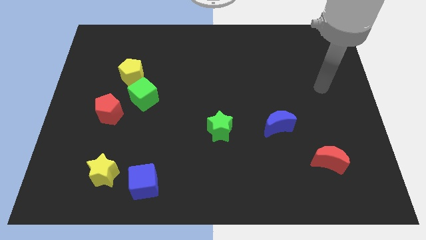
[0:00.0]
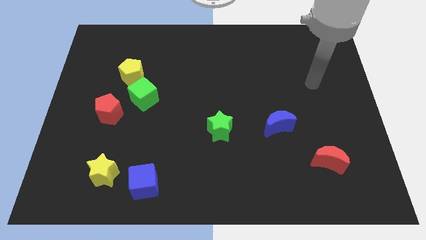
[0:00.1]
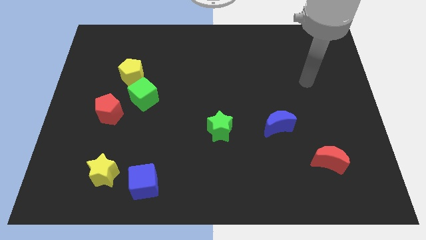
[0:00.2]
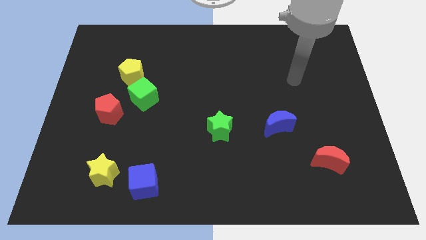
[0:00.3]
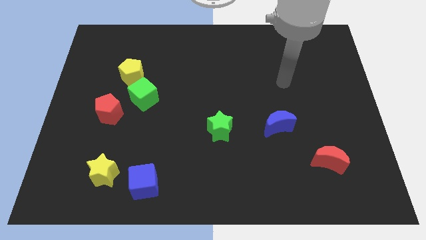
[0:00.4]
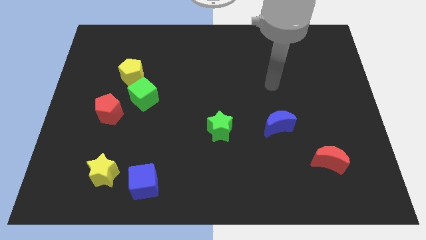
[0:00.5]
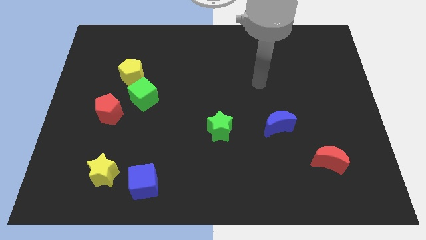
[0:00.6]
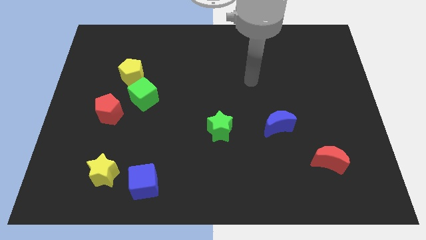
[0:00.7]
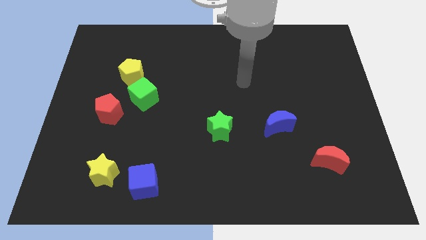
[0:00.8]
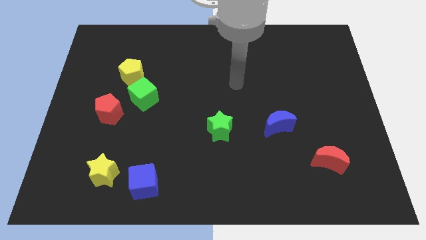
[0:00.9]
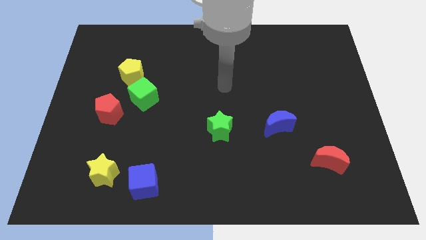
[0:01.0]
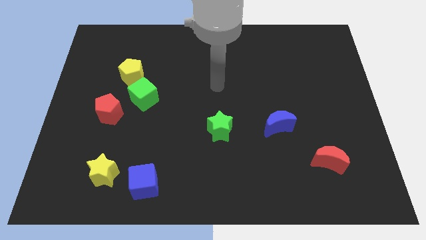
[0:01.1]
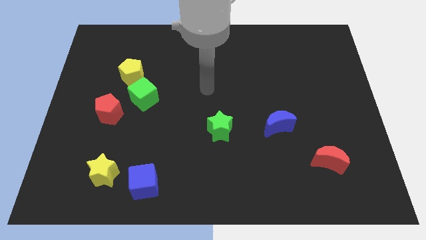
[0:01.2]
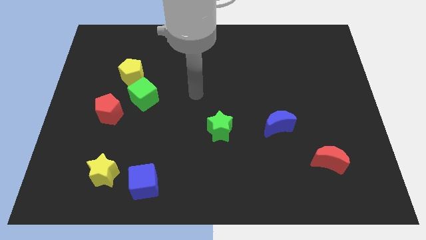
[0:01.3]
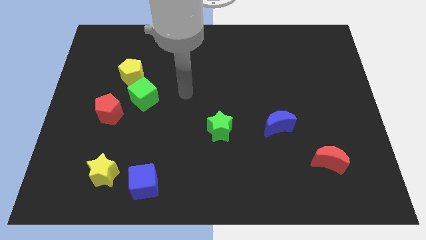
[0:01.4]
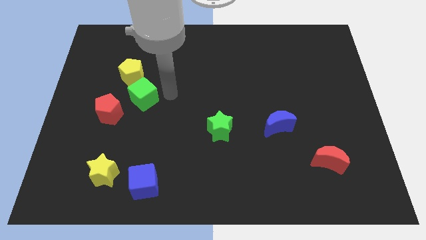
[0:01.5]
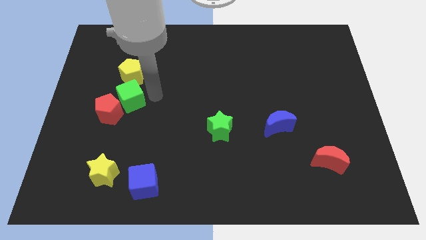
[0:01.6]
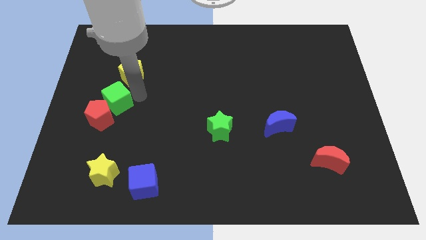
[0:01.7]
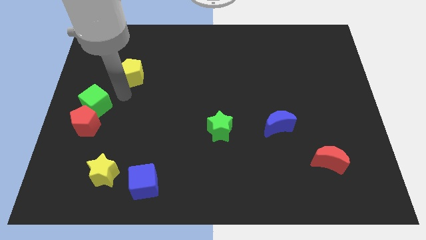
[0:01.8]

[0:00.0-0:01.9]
pull the yellow pentagon apart from the green cube

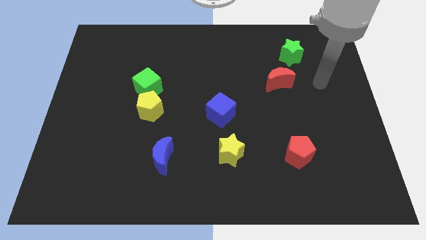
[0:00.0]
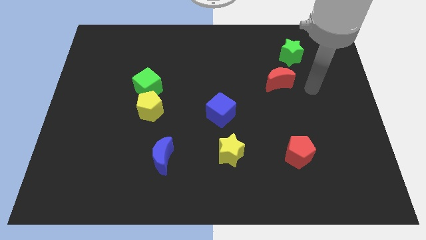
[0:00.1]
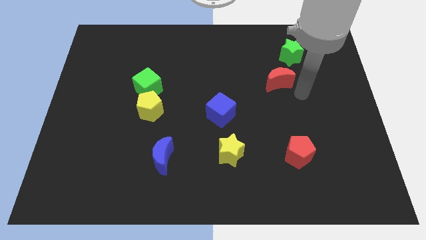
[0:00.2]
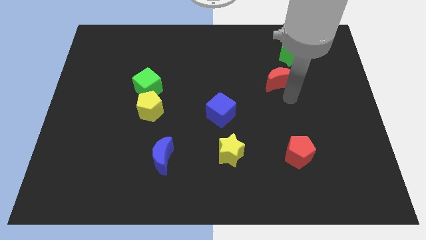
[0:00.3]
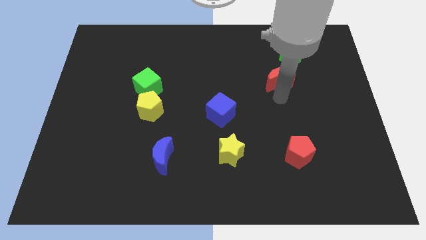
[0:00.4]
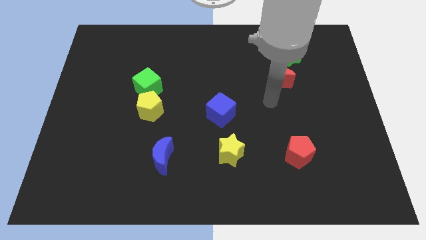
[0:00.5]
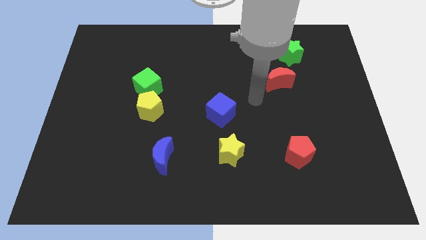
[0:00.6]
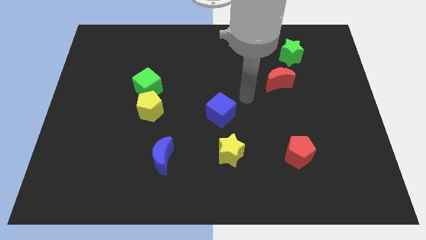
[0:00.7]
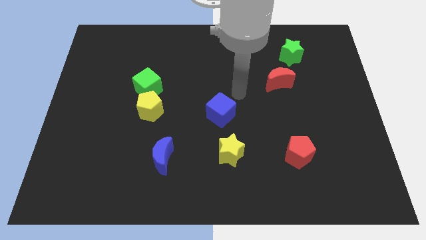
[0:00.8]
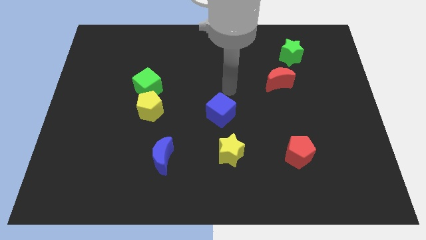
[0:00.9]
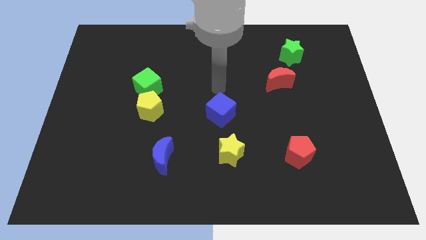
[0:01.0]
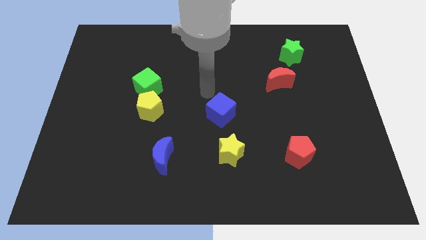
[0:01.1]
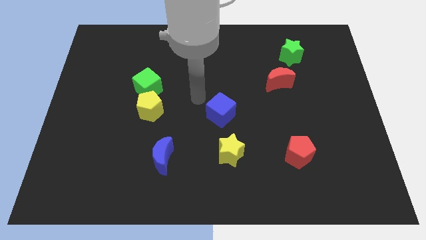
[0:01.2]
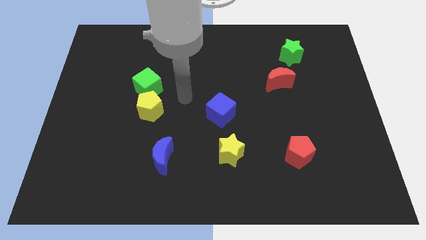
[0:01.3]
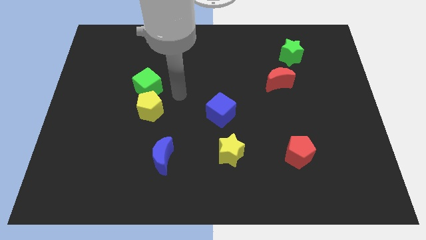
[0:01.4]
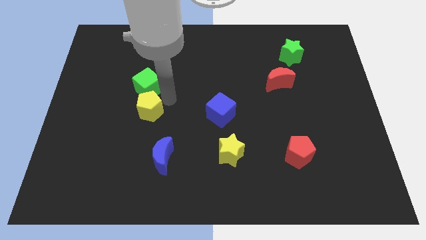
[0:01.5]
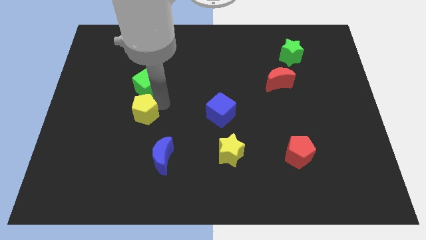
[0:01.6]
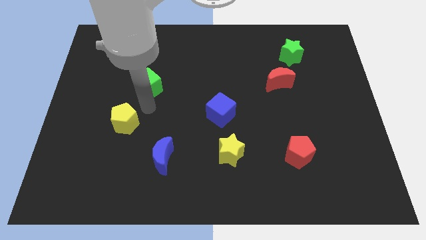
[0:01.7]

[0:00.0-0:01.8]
separate the green cube from the yellow pentagon

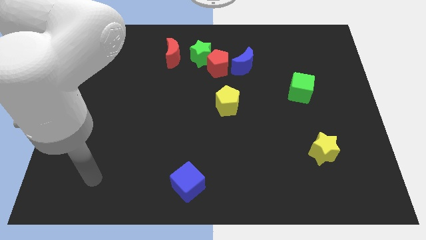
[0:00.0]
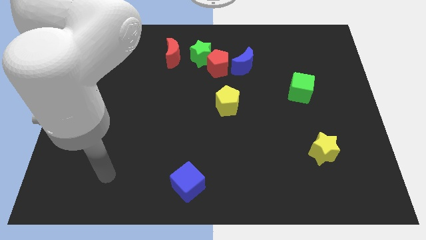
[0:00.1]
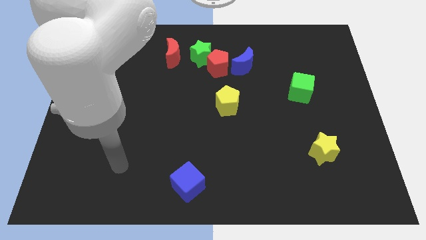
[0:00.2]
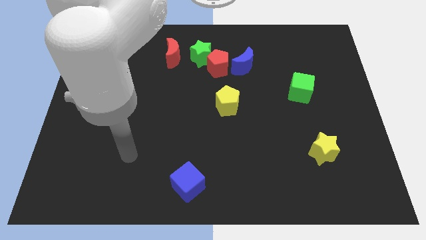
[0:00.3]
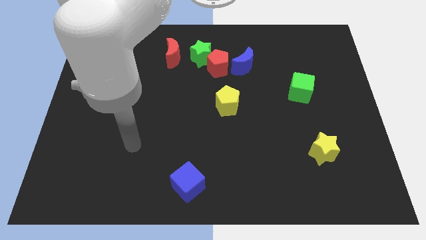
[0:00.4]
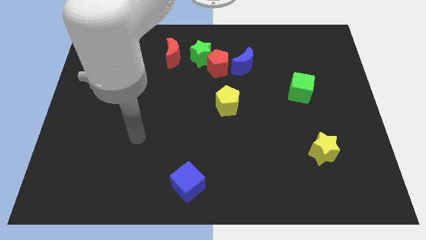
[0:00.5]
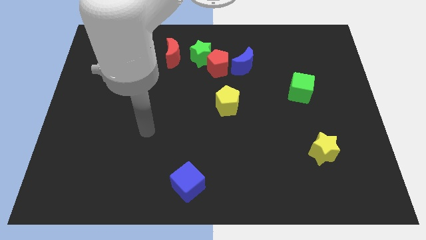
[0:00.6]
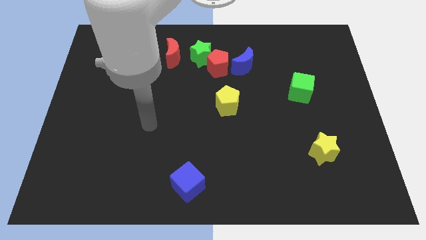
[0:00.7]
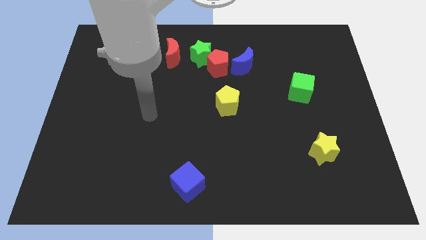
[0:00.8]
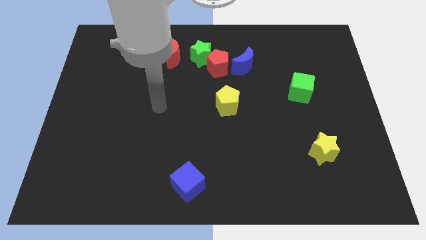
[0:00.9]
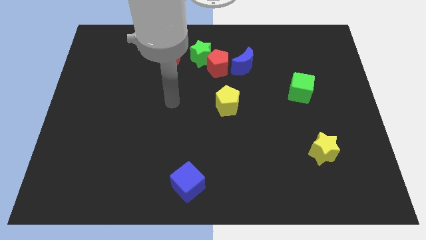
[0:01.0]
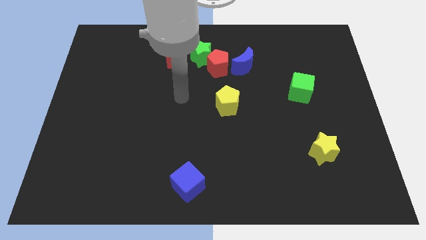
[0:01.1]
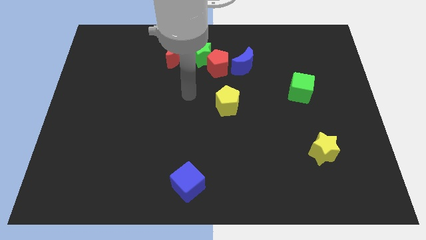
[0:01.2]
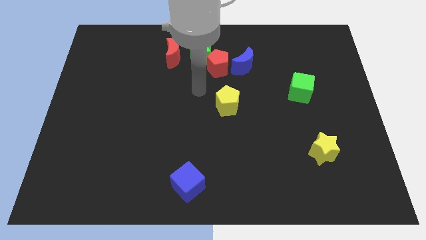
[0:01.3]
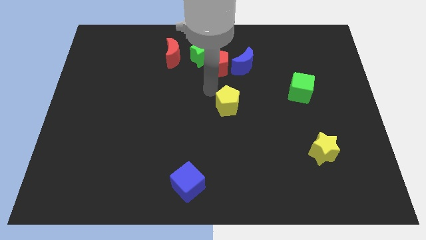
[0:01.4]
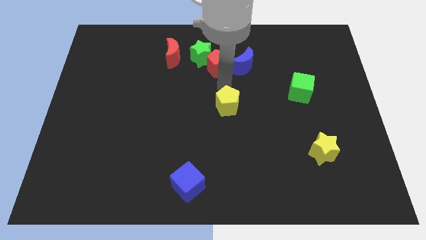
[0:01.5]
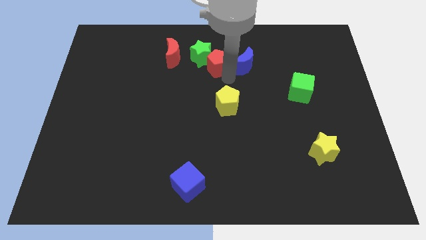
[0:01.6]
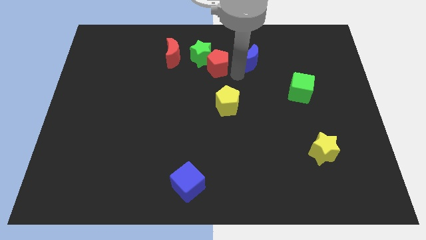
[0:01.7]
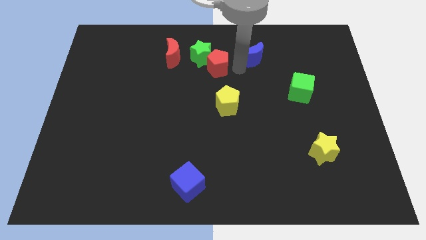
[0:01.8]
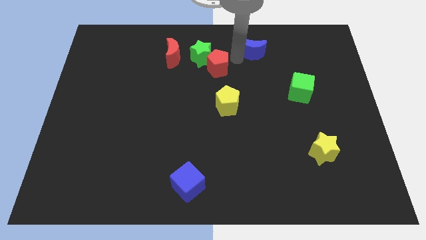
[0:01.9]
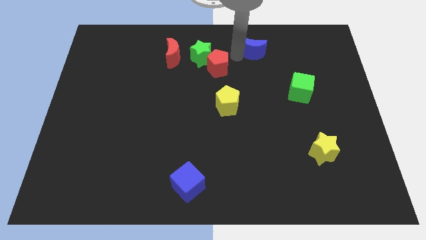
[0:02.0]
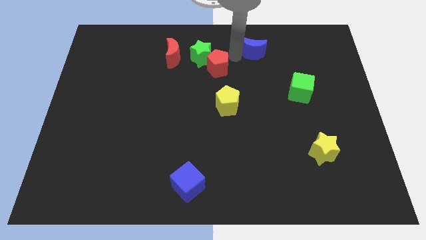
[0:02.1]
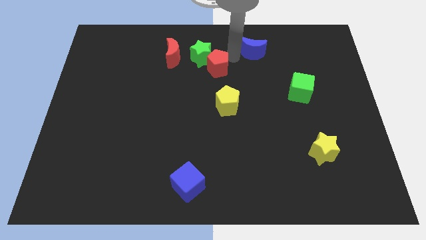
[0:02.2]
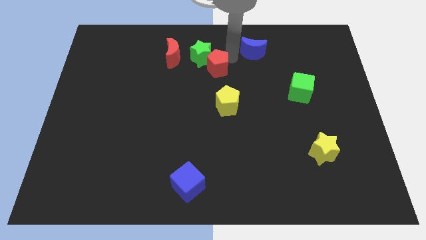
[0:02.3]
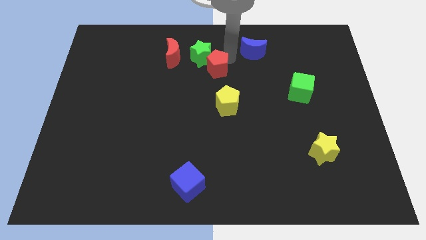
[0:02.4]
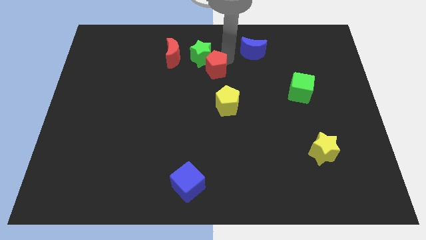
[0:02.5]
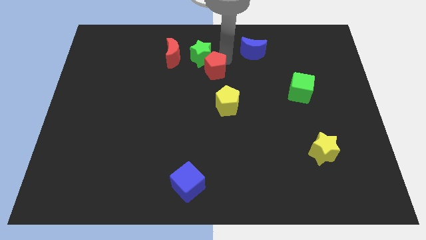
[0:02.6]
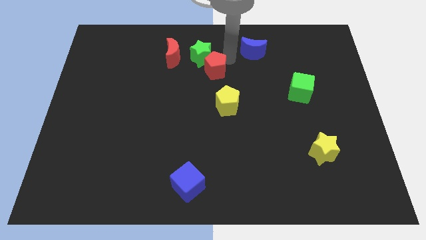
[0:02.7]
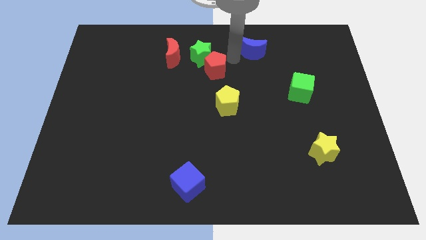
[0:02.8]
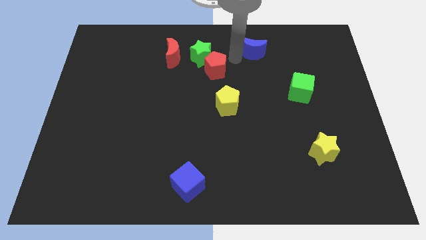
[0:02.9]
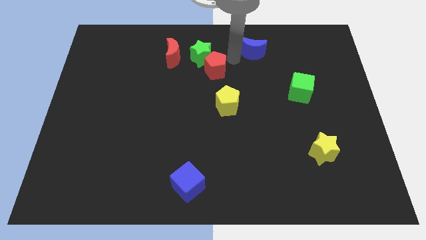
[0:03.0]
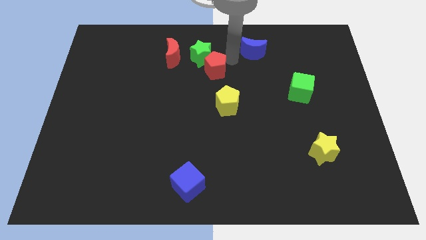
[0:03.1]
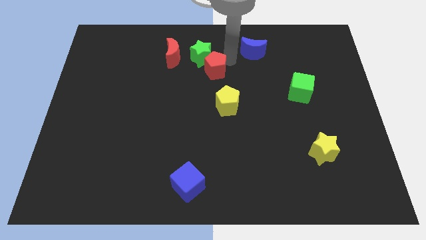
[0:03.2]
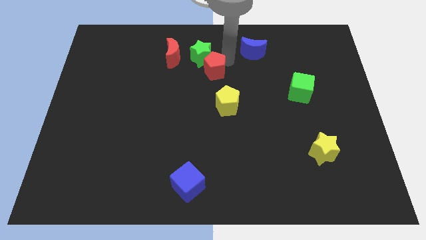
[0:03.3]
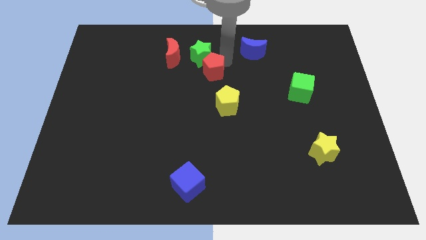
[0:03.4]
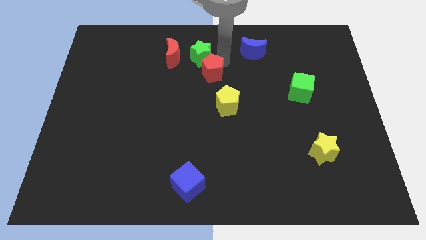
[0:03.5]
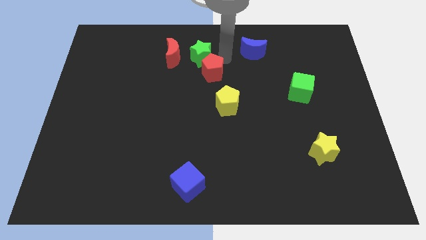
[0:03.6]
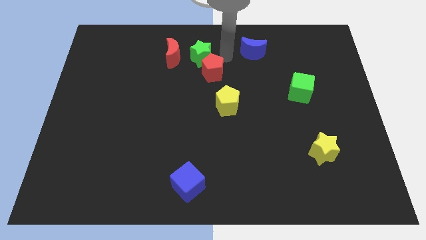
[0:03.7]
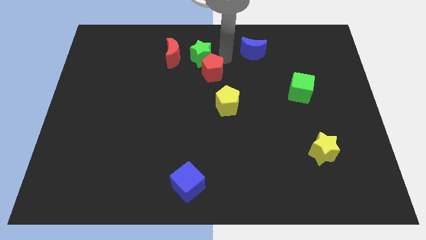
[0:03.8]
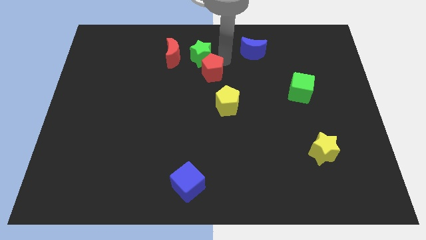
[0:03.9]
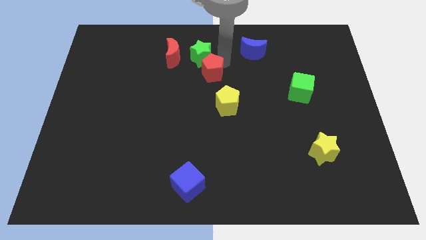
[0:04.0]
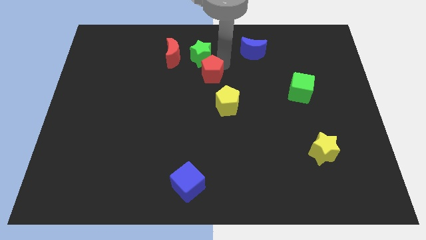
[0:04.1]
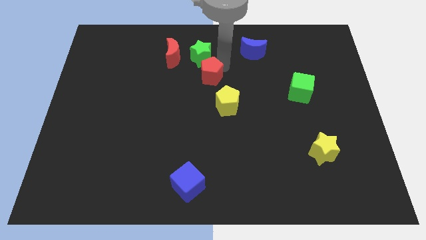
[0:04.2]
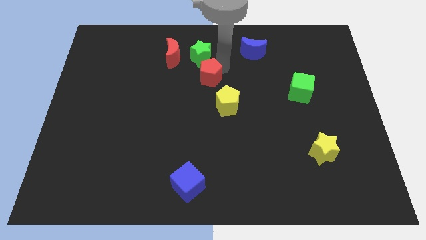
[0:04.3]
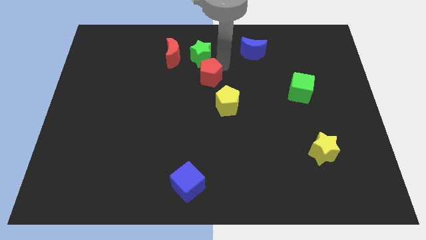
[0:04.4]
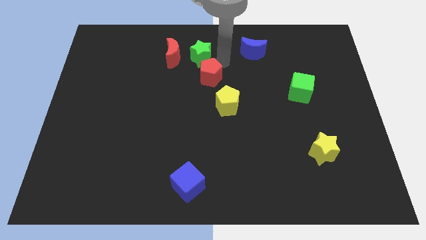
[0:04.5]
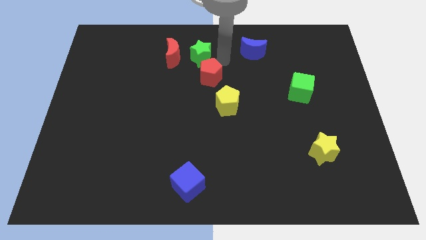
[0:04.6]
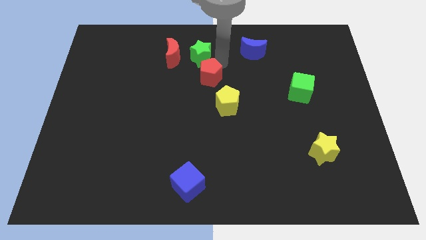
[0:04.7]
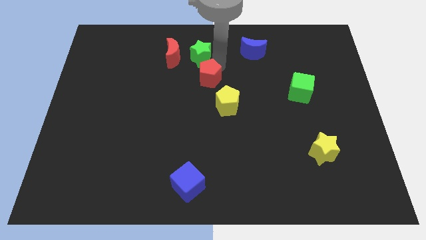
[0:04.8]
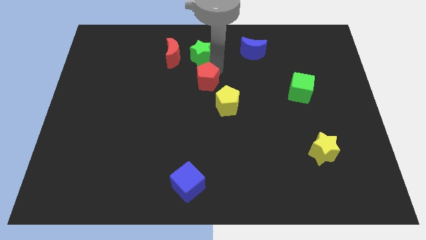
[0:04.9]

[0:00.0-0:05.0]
separate the red pentagon from the green star and blue moon

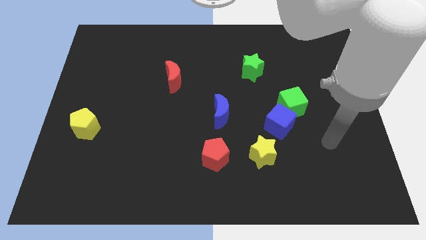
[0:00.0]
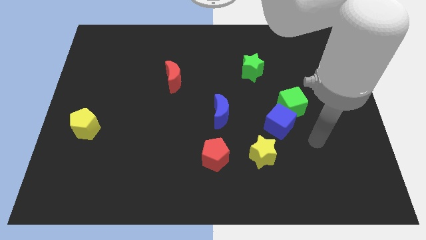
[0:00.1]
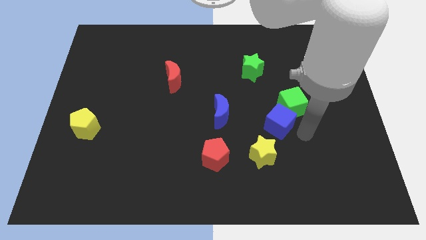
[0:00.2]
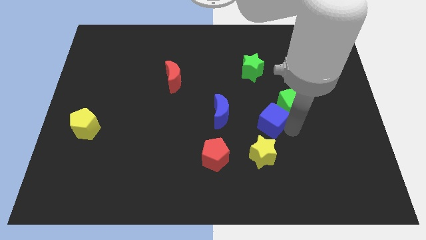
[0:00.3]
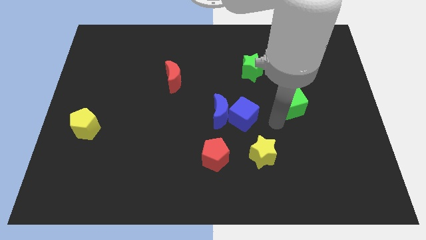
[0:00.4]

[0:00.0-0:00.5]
move the green cube away from the blue cube

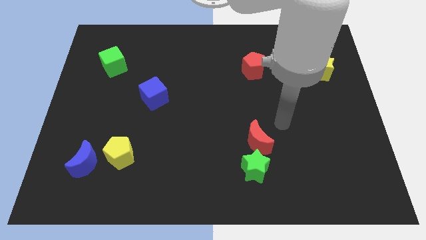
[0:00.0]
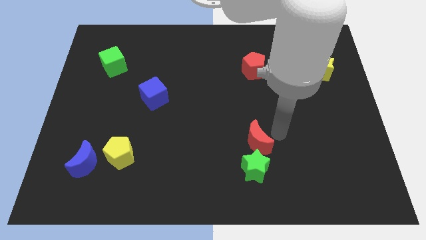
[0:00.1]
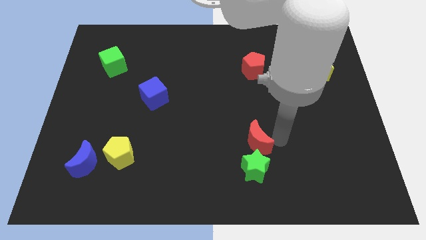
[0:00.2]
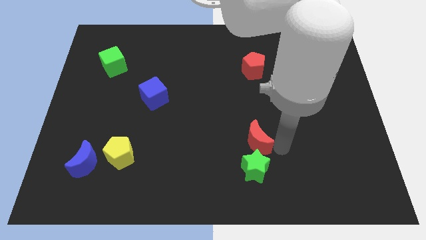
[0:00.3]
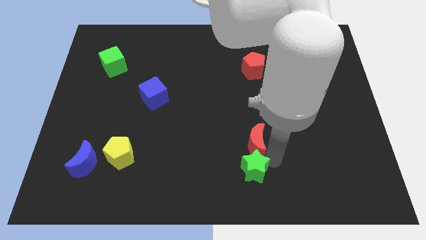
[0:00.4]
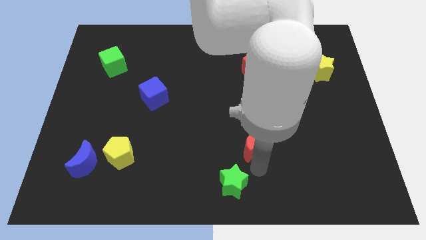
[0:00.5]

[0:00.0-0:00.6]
separate the red moon from the green star
